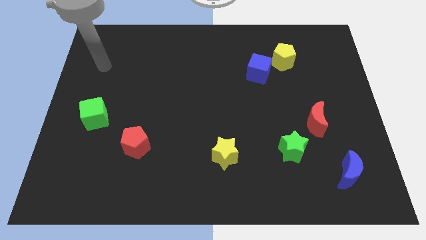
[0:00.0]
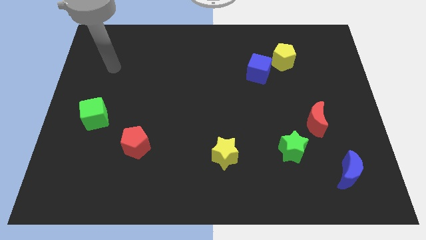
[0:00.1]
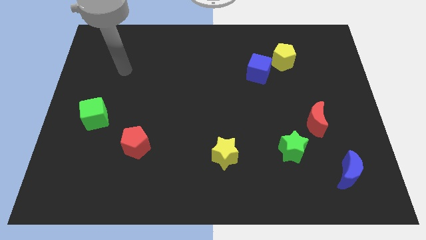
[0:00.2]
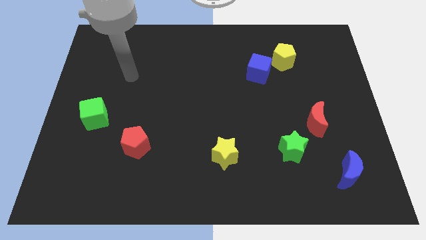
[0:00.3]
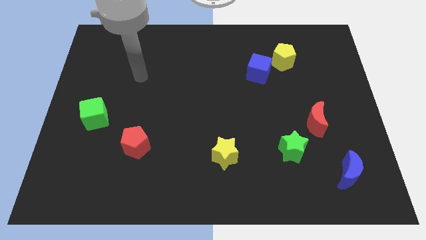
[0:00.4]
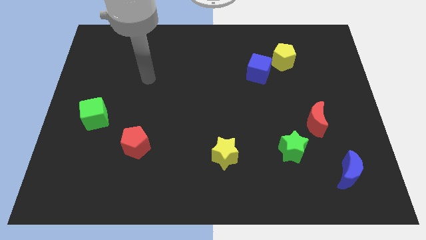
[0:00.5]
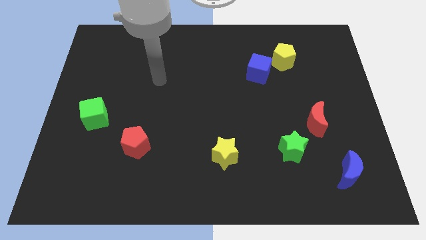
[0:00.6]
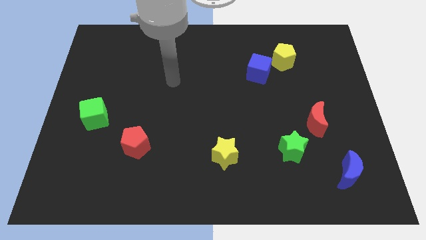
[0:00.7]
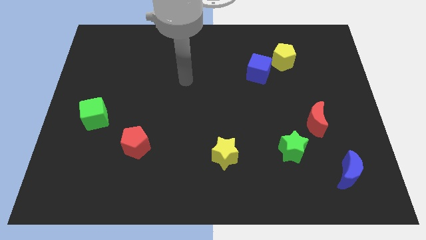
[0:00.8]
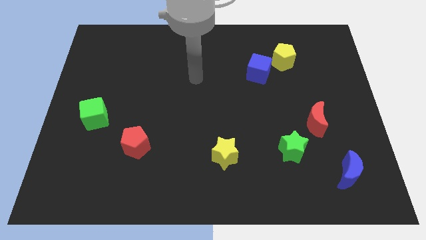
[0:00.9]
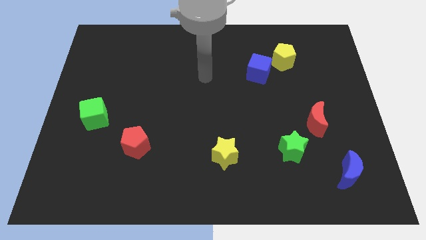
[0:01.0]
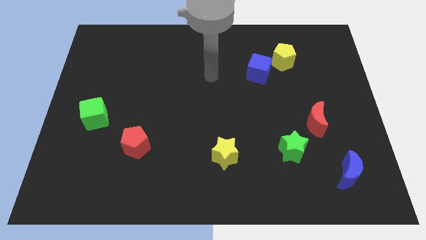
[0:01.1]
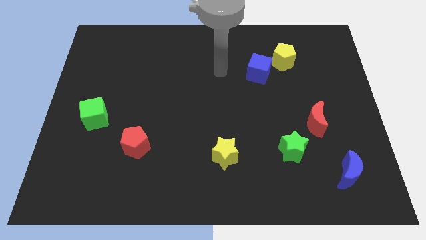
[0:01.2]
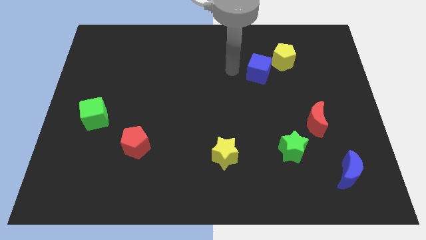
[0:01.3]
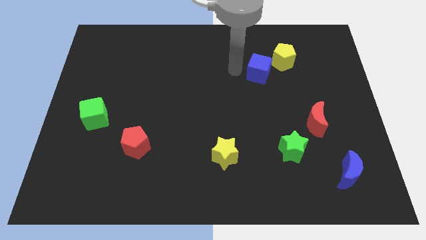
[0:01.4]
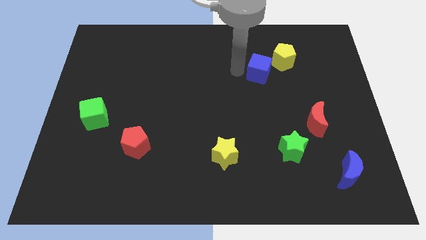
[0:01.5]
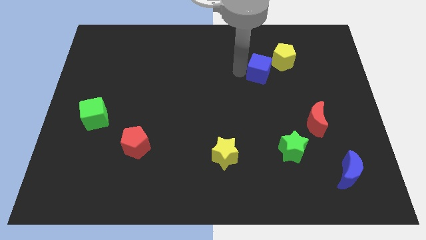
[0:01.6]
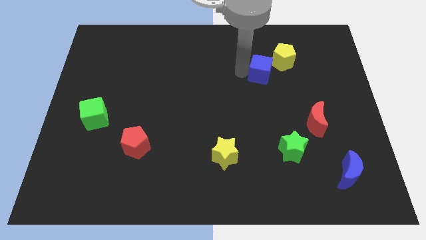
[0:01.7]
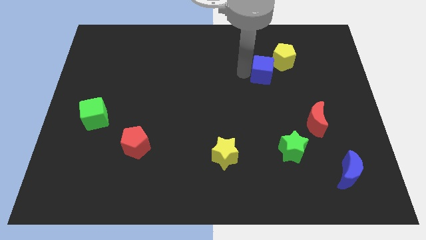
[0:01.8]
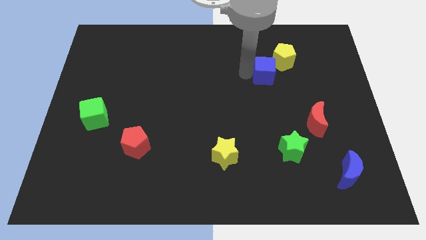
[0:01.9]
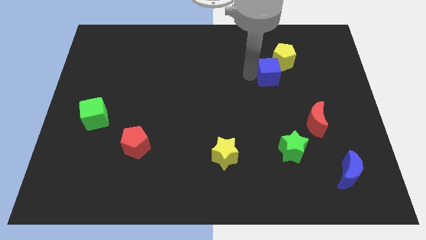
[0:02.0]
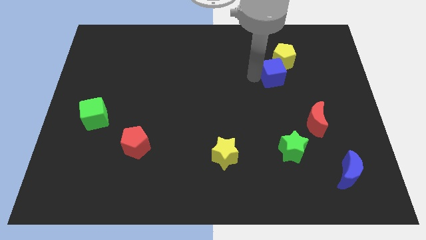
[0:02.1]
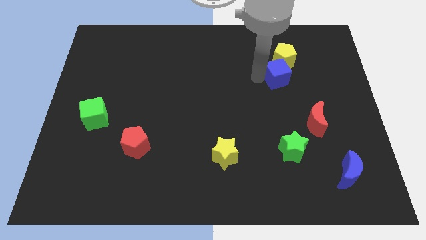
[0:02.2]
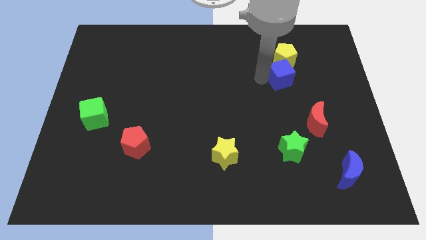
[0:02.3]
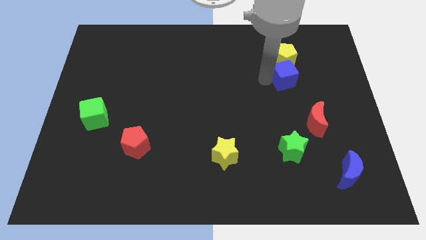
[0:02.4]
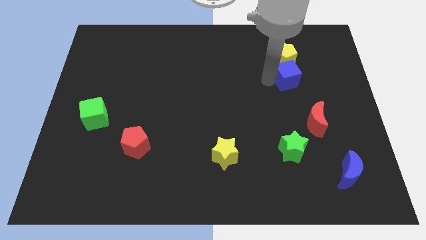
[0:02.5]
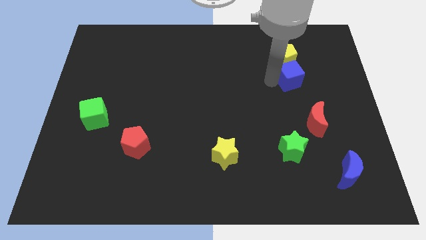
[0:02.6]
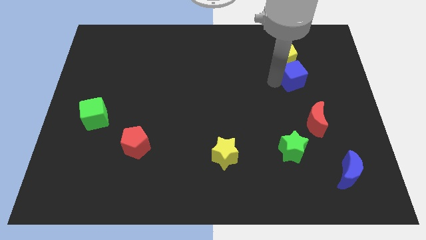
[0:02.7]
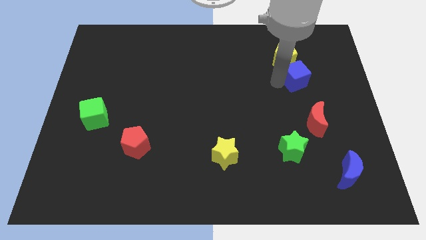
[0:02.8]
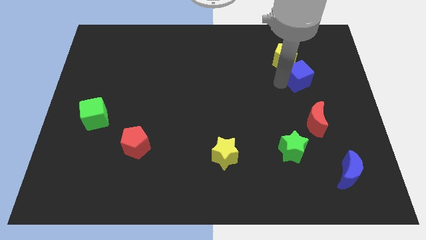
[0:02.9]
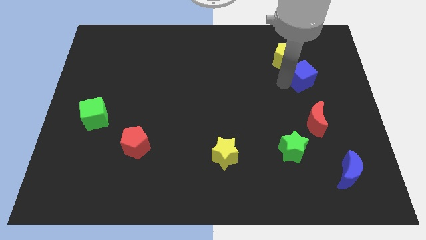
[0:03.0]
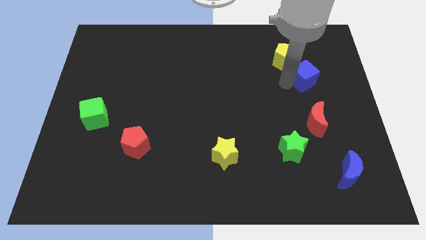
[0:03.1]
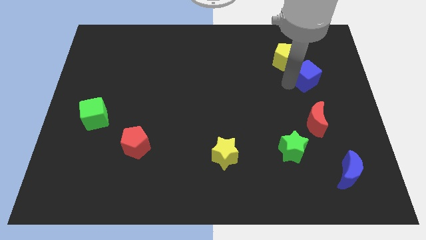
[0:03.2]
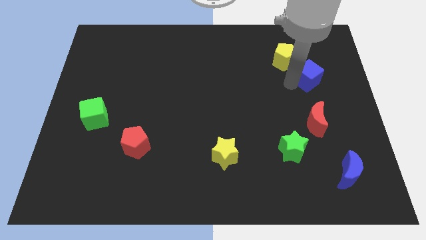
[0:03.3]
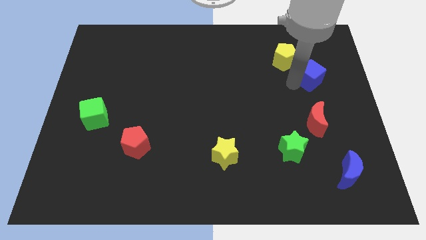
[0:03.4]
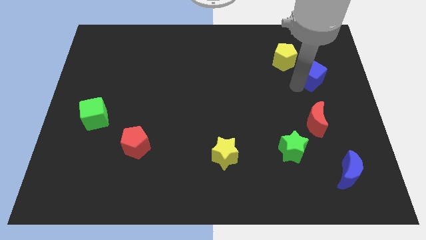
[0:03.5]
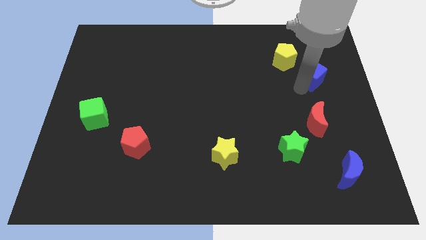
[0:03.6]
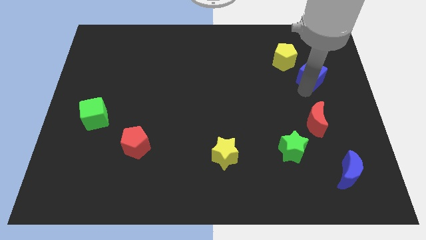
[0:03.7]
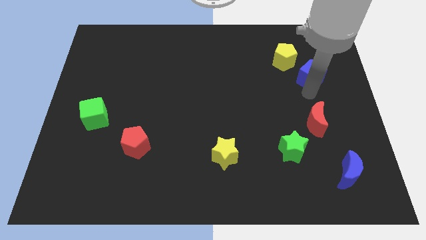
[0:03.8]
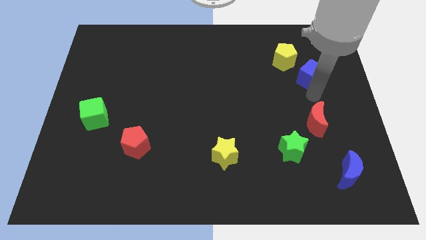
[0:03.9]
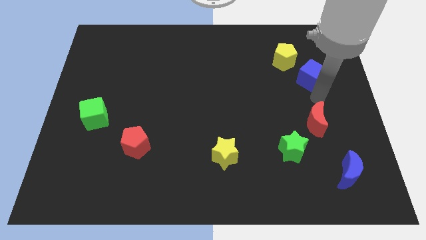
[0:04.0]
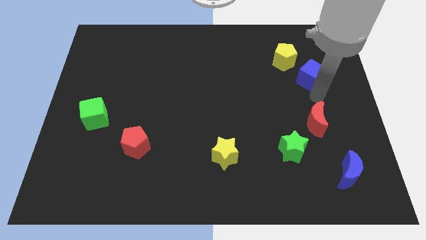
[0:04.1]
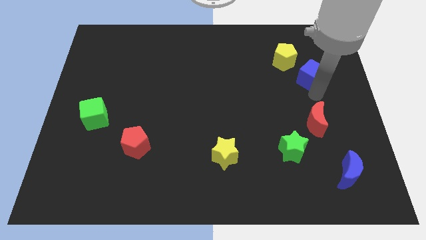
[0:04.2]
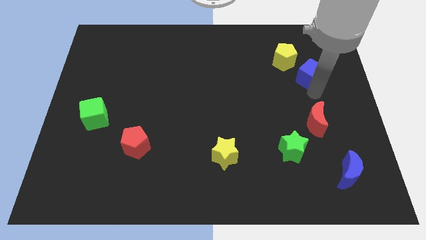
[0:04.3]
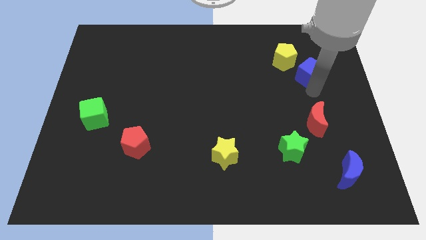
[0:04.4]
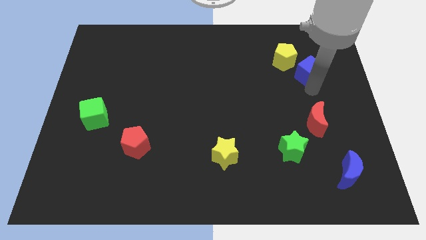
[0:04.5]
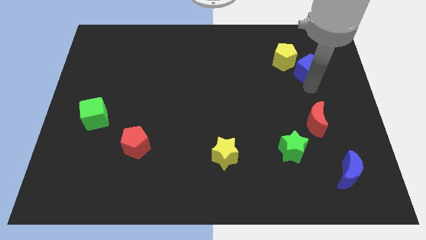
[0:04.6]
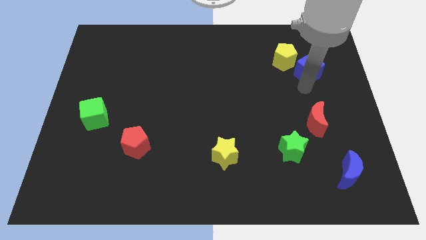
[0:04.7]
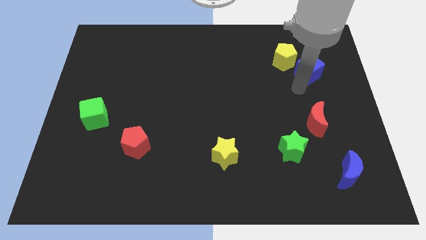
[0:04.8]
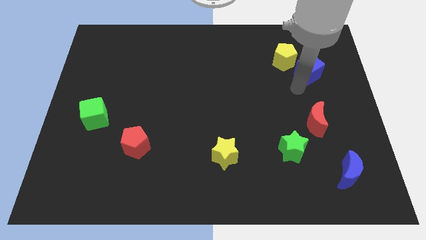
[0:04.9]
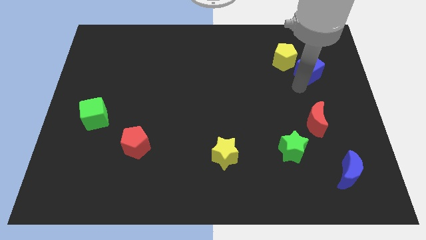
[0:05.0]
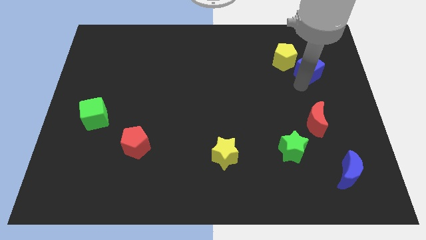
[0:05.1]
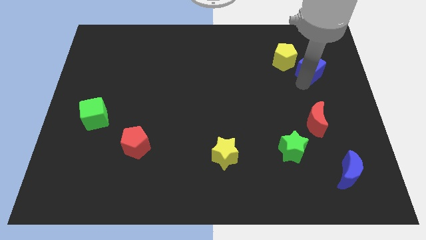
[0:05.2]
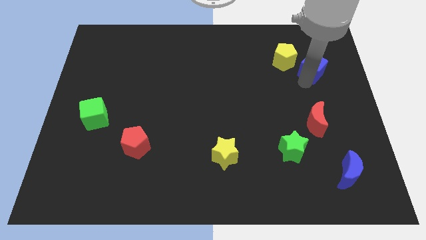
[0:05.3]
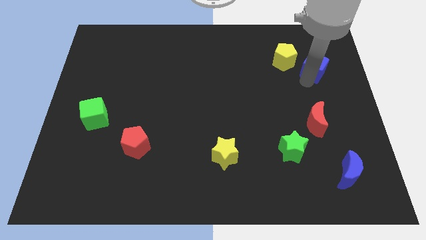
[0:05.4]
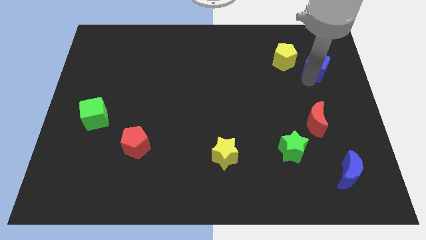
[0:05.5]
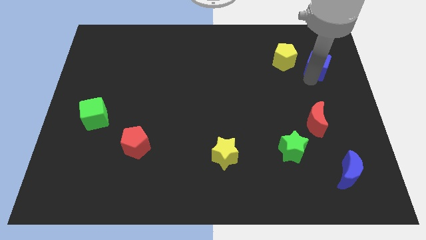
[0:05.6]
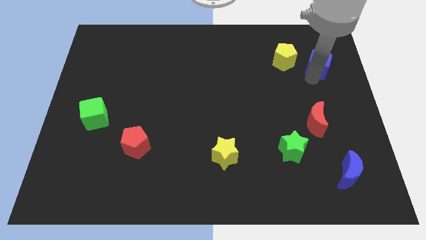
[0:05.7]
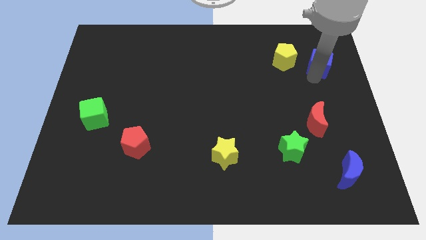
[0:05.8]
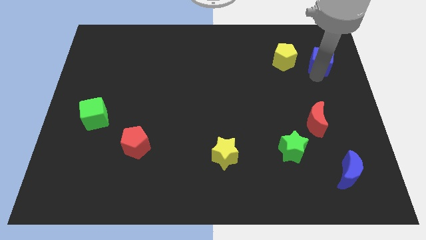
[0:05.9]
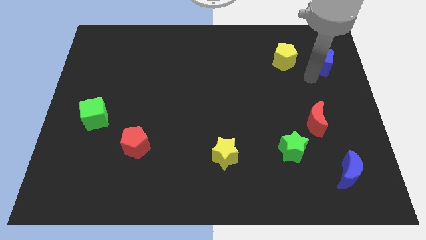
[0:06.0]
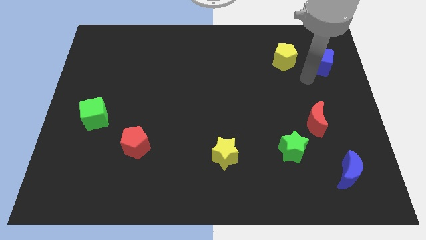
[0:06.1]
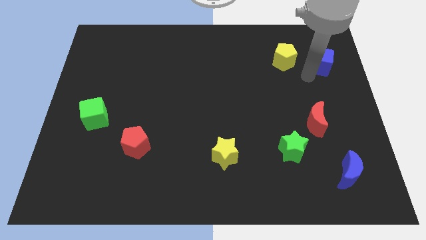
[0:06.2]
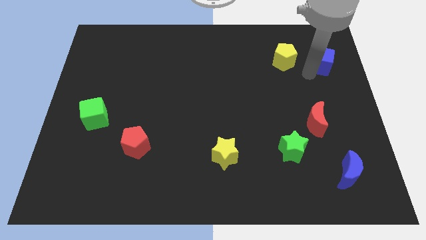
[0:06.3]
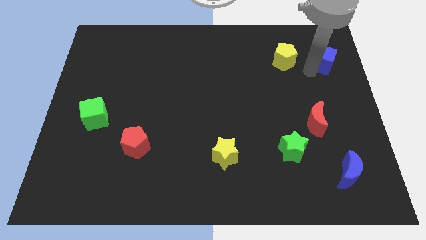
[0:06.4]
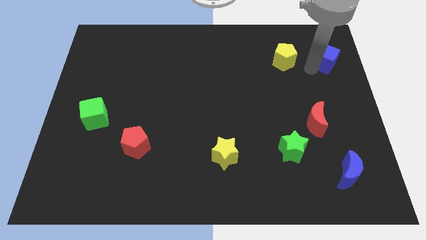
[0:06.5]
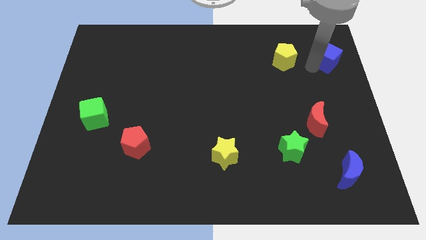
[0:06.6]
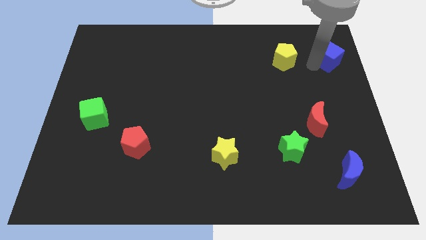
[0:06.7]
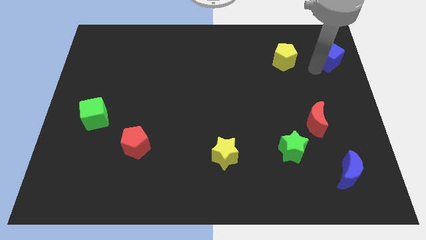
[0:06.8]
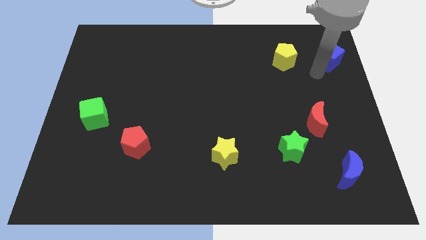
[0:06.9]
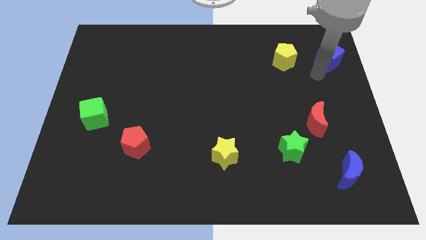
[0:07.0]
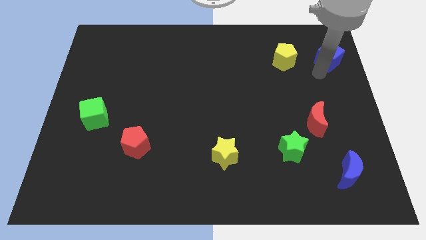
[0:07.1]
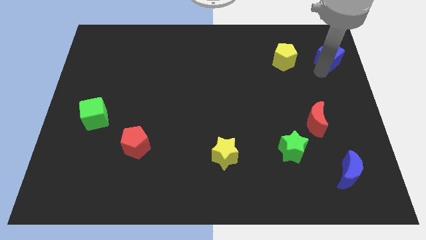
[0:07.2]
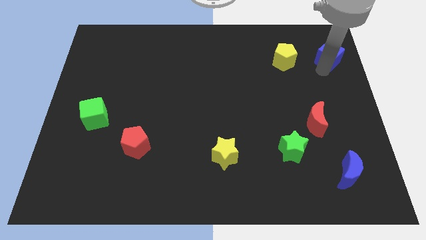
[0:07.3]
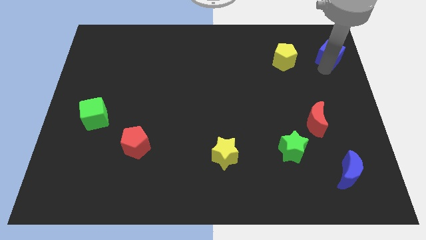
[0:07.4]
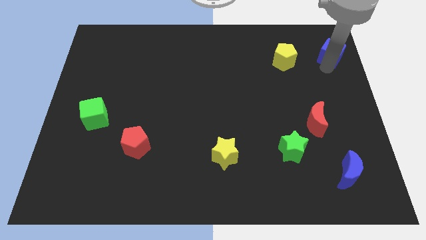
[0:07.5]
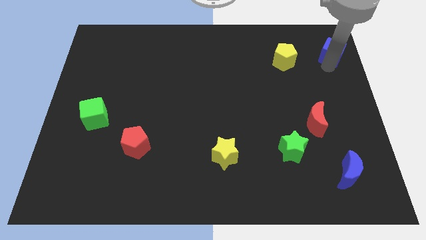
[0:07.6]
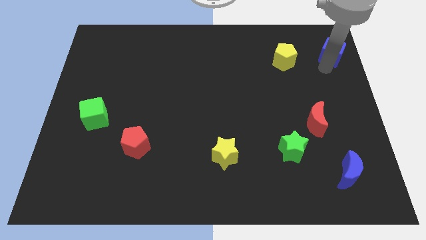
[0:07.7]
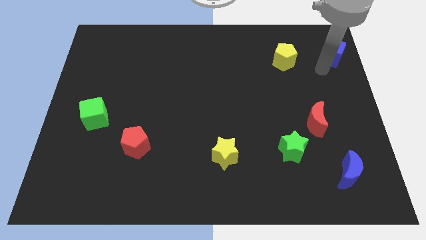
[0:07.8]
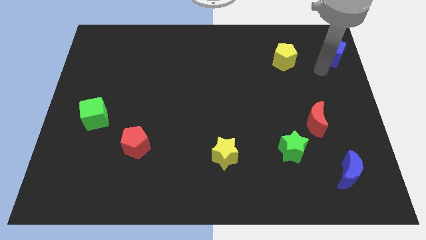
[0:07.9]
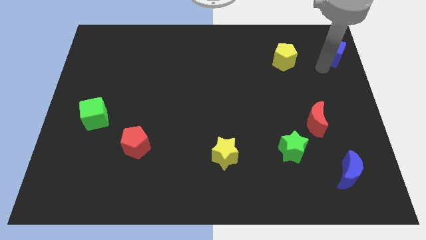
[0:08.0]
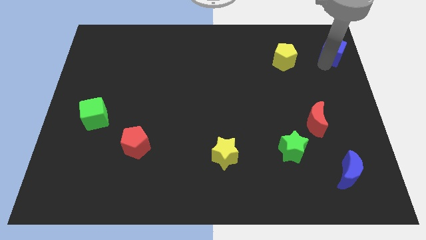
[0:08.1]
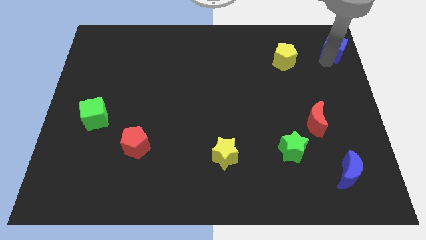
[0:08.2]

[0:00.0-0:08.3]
slide the blue cube to the top right of the board
